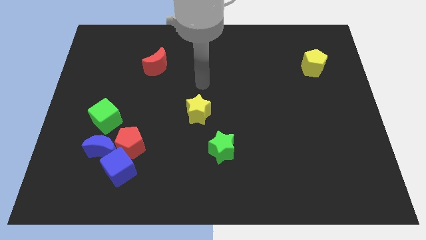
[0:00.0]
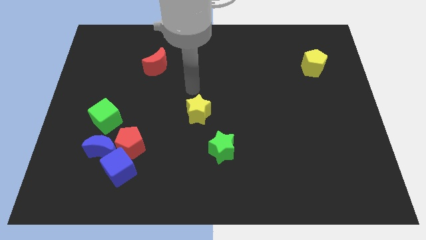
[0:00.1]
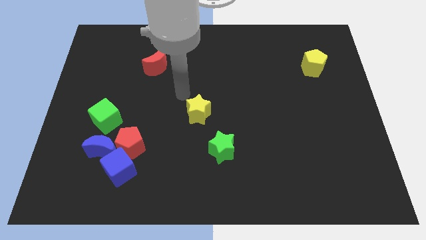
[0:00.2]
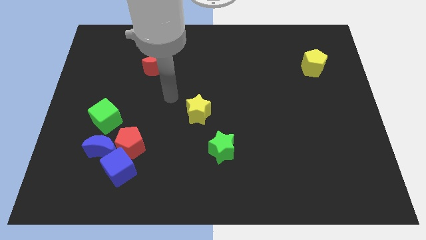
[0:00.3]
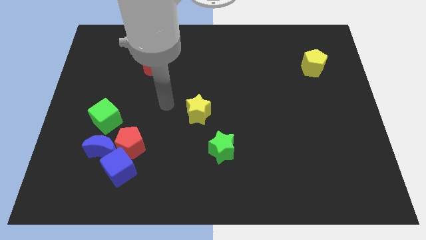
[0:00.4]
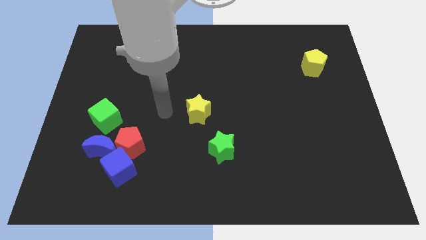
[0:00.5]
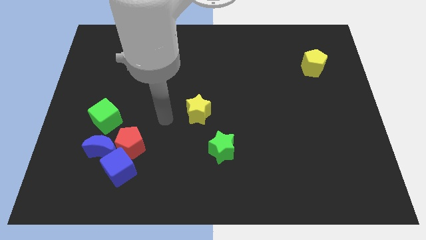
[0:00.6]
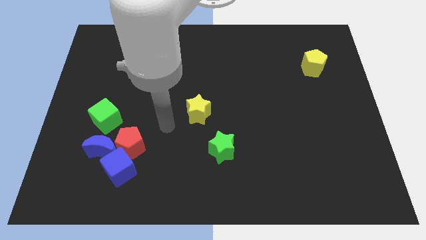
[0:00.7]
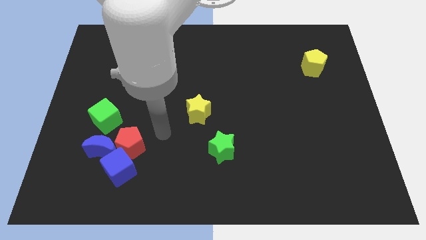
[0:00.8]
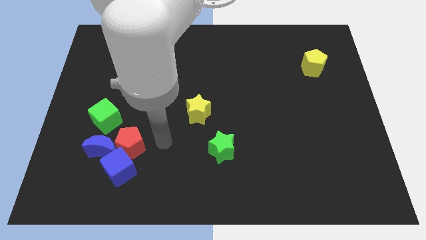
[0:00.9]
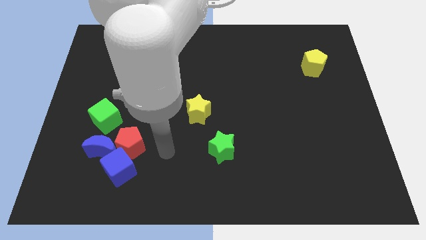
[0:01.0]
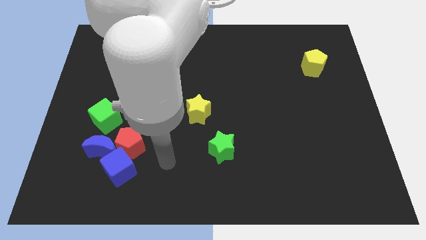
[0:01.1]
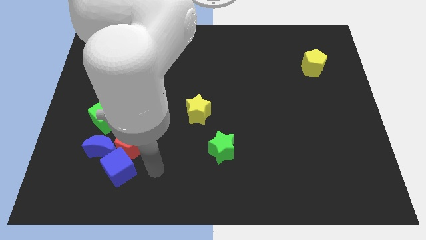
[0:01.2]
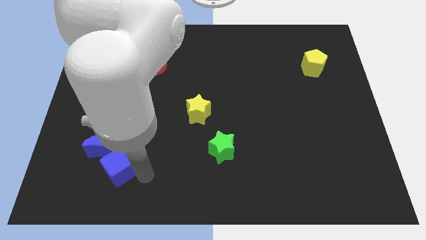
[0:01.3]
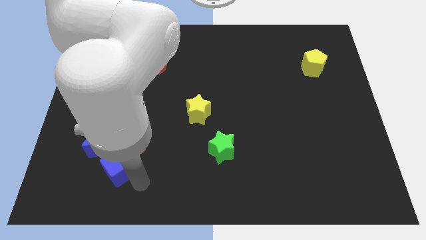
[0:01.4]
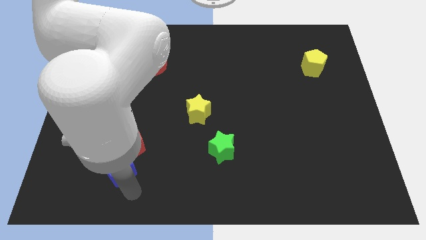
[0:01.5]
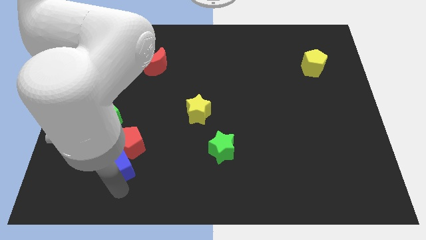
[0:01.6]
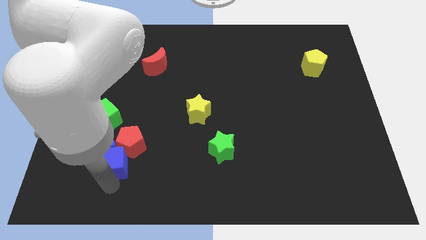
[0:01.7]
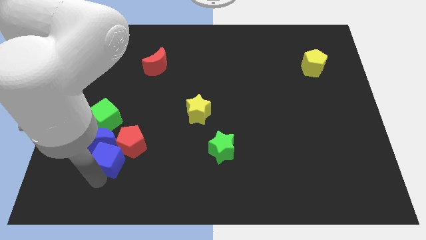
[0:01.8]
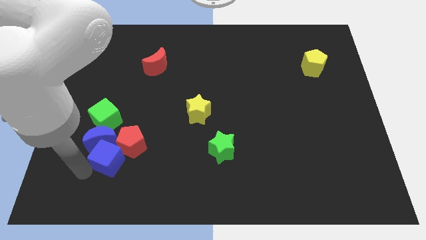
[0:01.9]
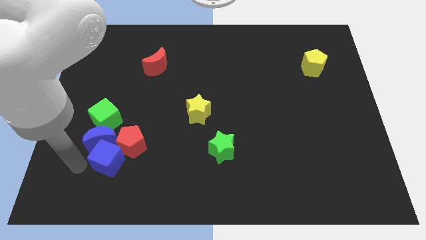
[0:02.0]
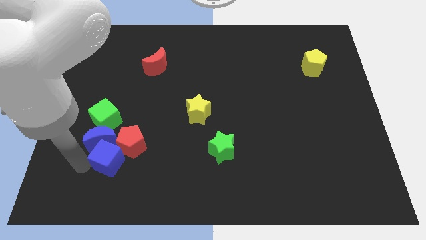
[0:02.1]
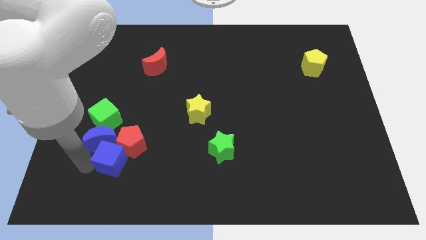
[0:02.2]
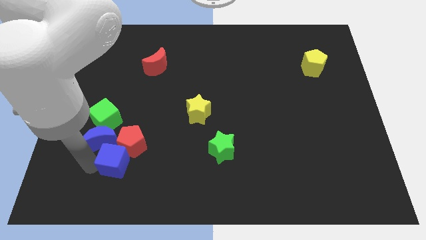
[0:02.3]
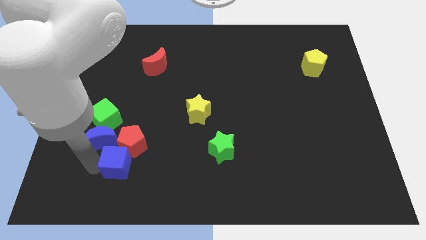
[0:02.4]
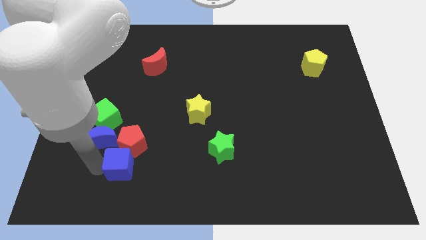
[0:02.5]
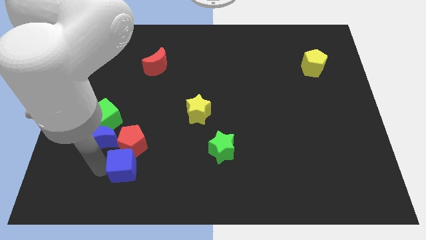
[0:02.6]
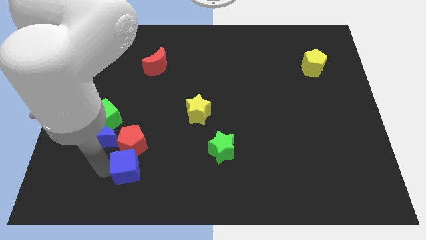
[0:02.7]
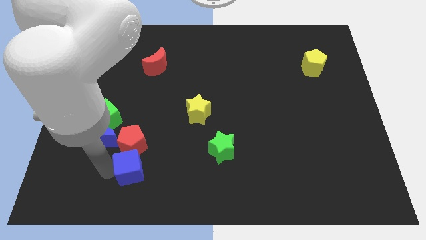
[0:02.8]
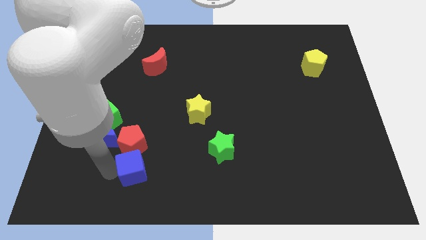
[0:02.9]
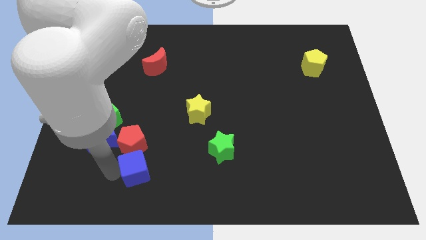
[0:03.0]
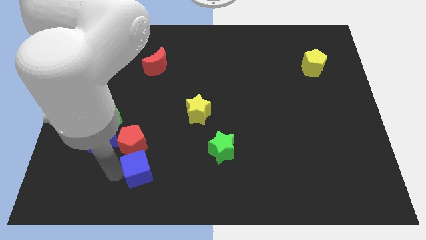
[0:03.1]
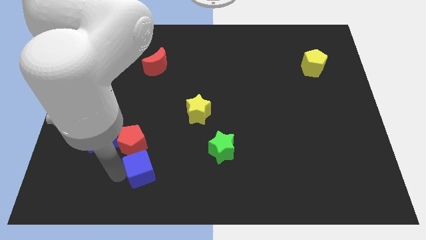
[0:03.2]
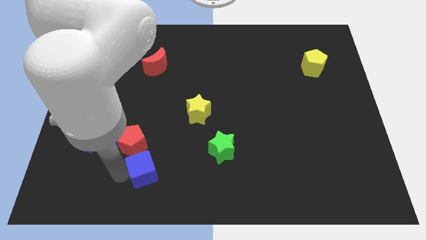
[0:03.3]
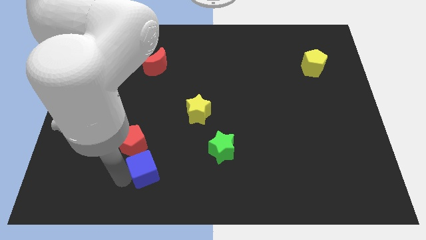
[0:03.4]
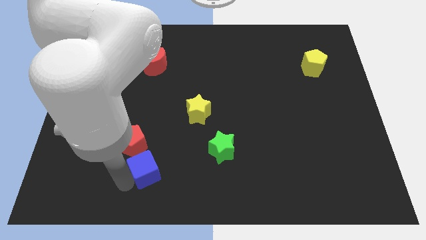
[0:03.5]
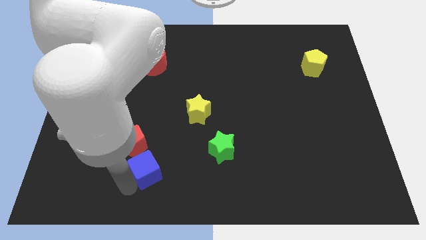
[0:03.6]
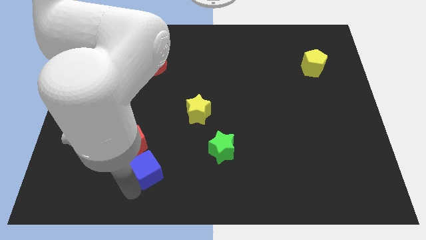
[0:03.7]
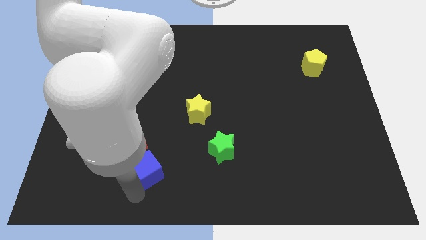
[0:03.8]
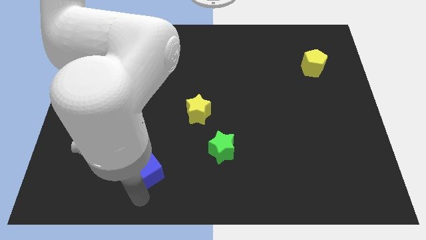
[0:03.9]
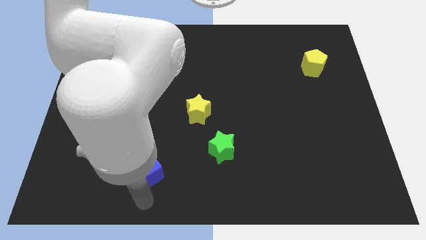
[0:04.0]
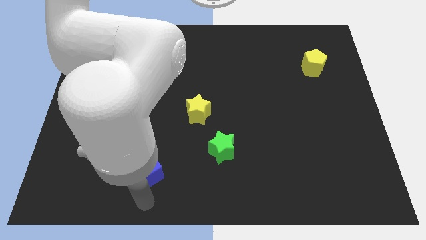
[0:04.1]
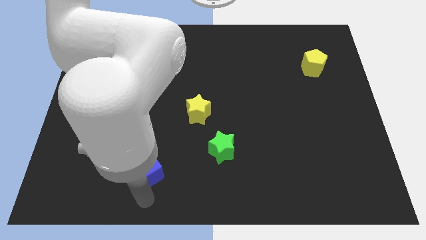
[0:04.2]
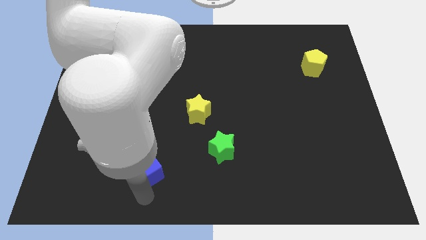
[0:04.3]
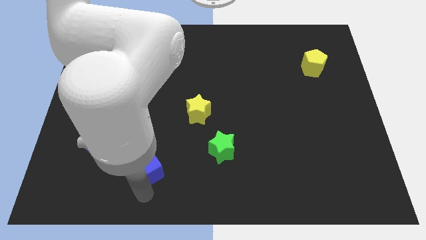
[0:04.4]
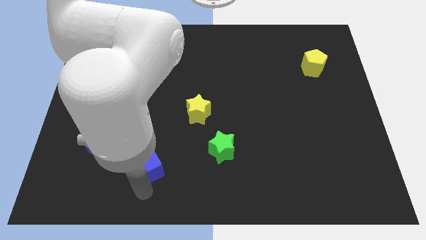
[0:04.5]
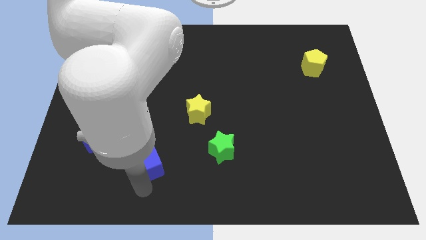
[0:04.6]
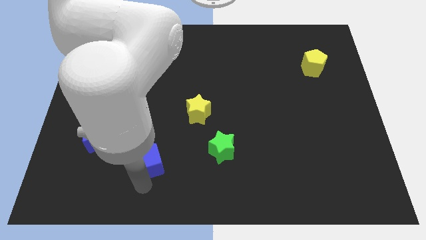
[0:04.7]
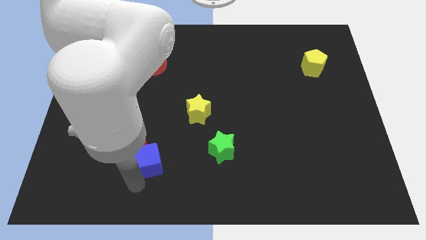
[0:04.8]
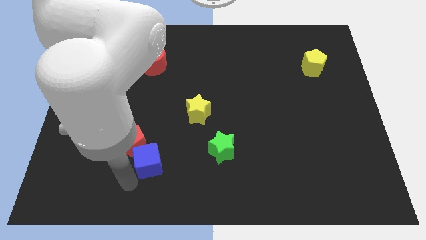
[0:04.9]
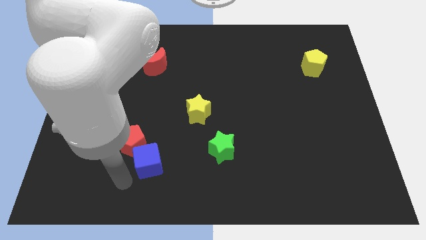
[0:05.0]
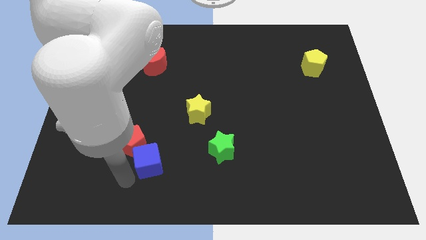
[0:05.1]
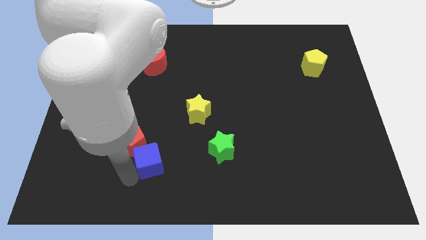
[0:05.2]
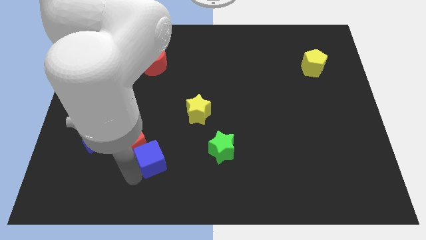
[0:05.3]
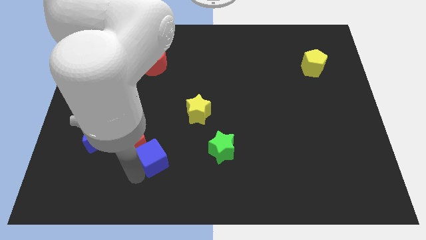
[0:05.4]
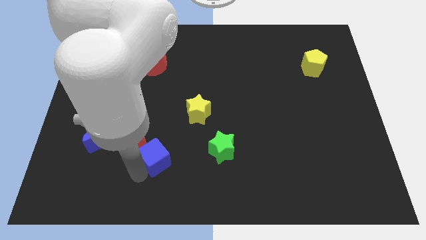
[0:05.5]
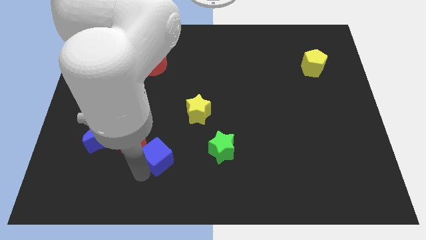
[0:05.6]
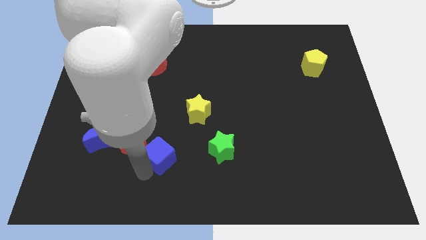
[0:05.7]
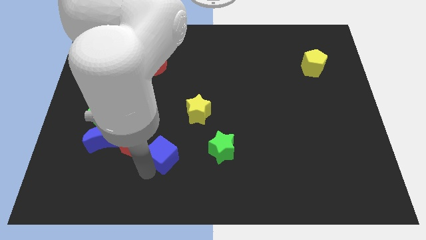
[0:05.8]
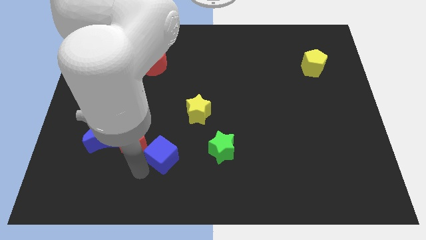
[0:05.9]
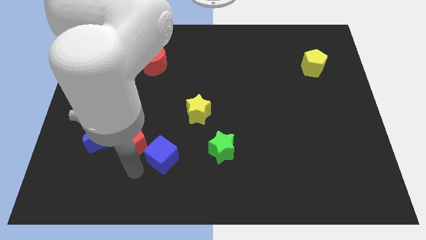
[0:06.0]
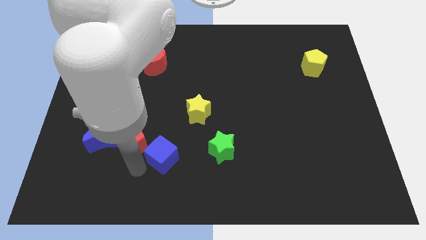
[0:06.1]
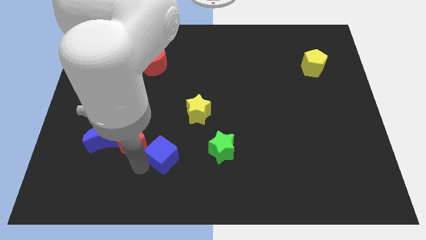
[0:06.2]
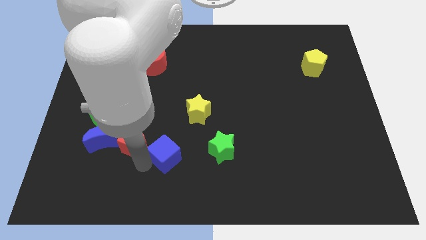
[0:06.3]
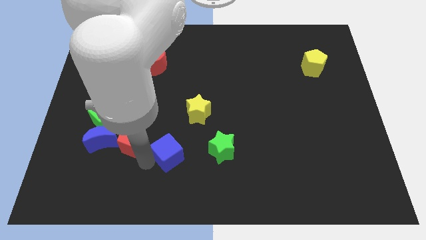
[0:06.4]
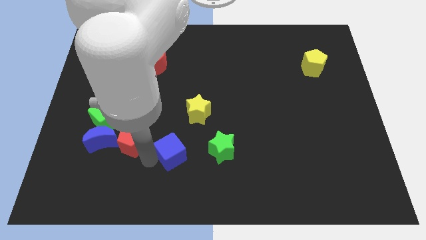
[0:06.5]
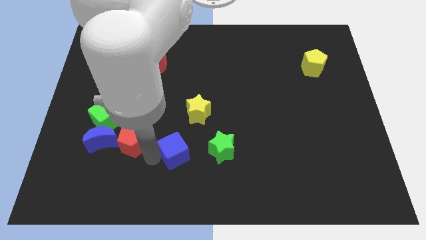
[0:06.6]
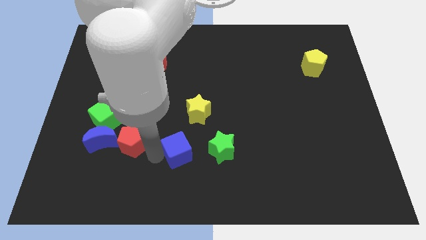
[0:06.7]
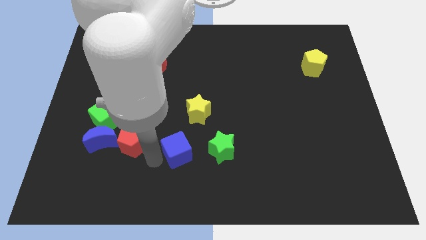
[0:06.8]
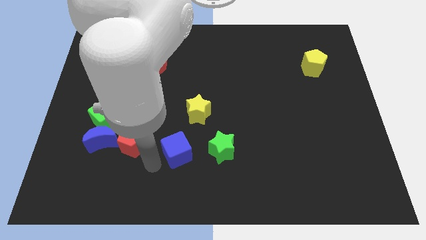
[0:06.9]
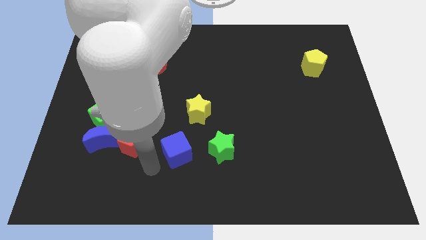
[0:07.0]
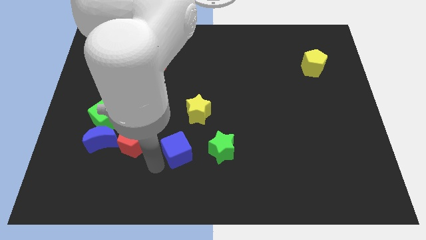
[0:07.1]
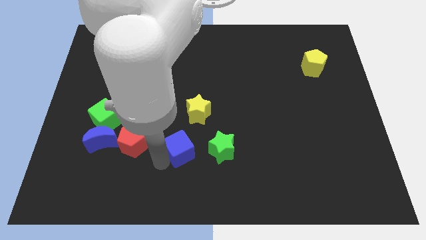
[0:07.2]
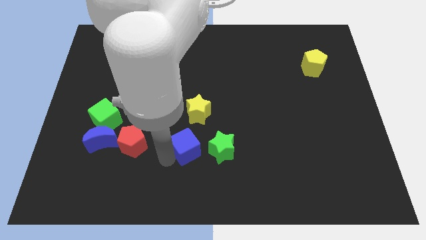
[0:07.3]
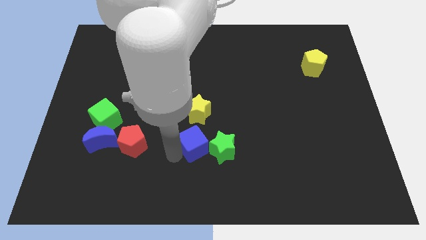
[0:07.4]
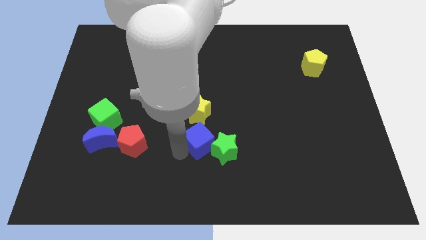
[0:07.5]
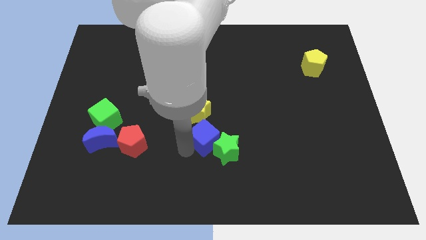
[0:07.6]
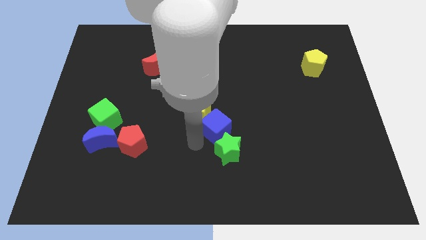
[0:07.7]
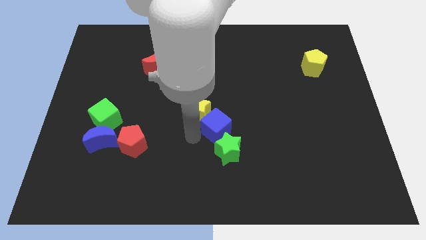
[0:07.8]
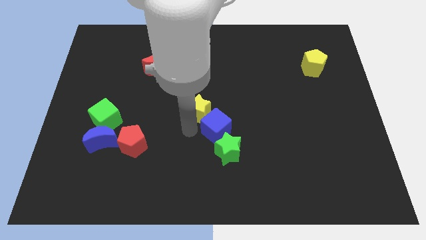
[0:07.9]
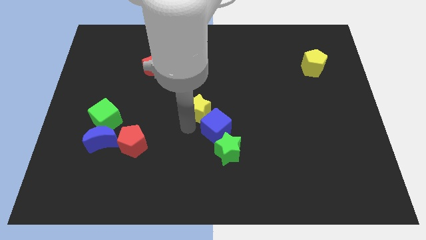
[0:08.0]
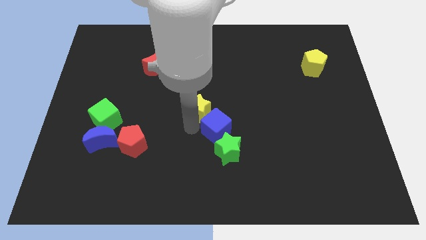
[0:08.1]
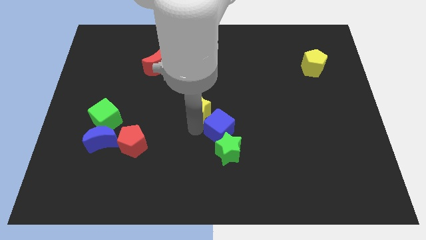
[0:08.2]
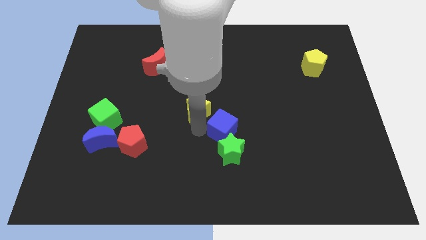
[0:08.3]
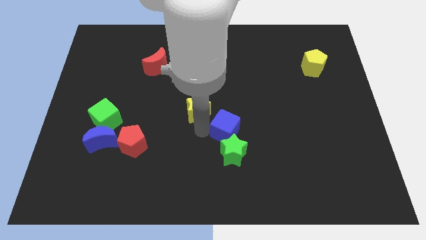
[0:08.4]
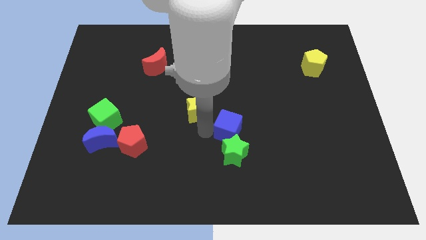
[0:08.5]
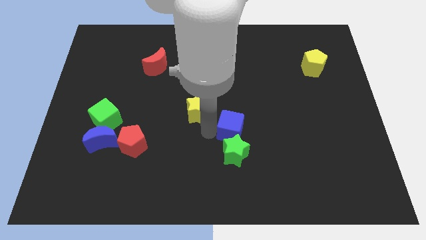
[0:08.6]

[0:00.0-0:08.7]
slide the blue cube to the top right of the green star
